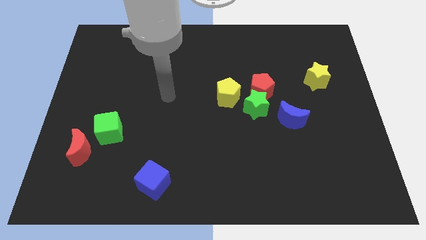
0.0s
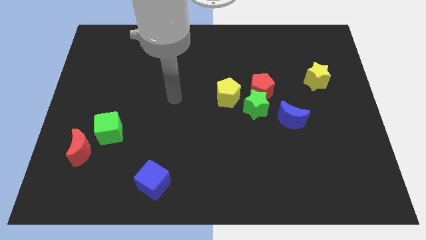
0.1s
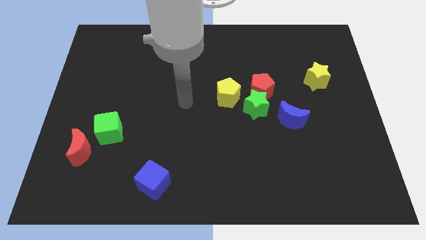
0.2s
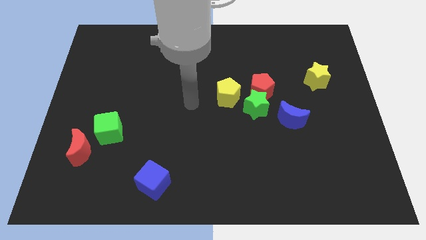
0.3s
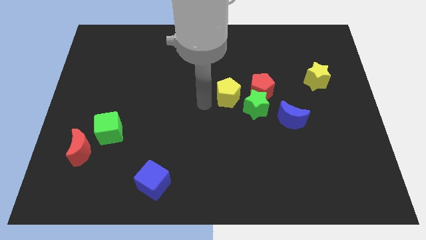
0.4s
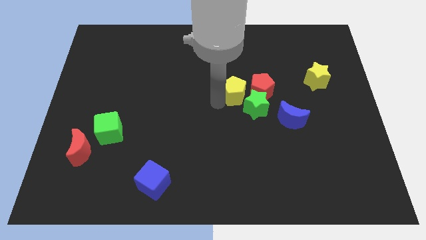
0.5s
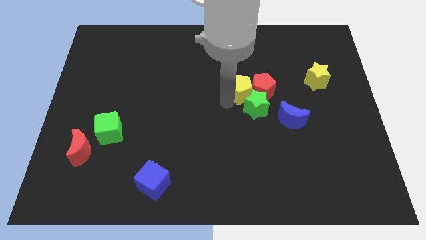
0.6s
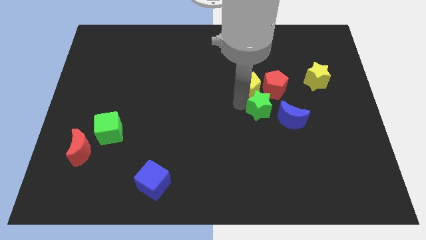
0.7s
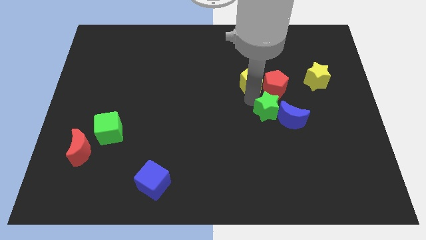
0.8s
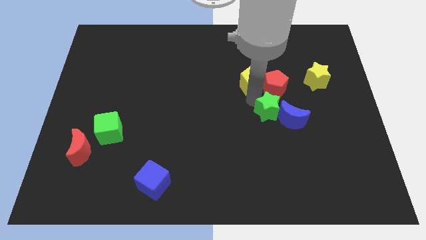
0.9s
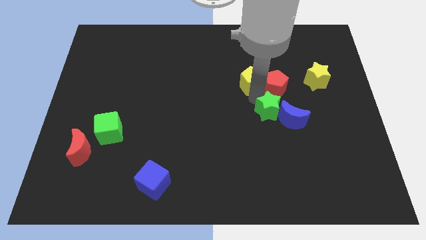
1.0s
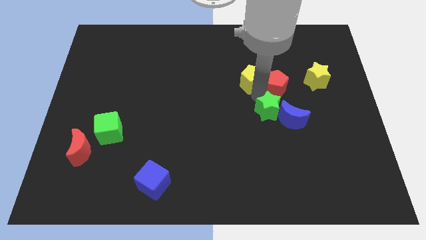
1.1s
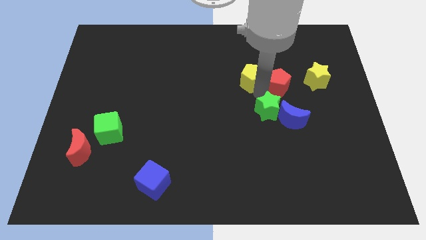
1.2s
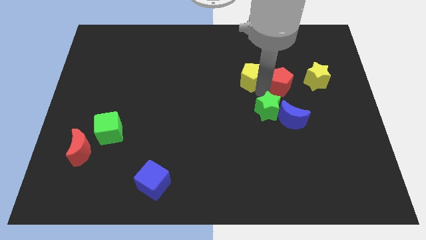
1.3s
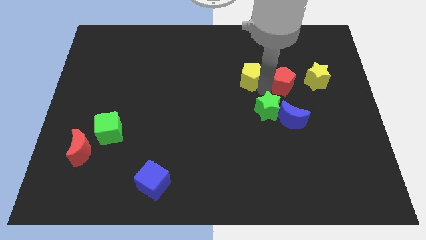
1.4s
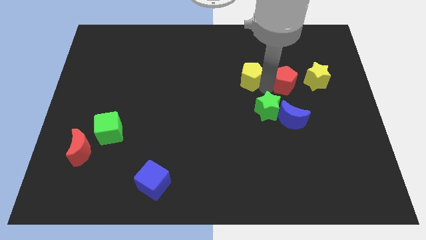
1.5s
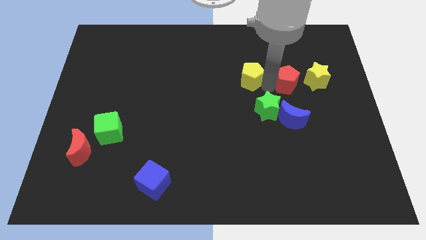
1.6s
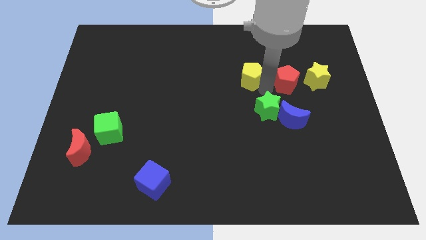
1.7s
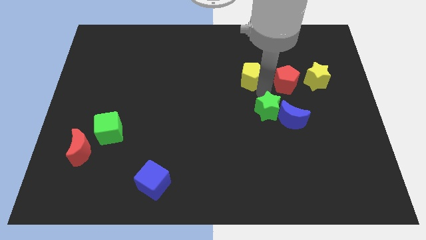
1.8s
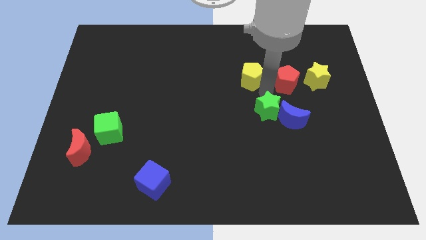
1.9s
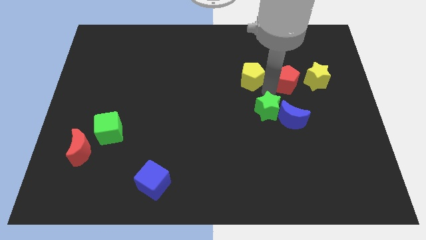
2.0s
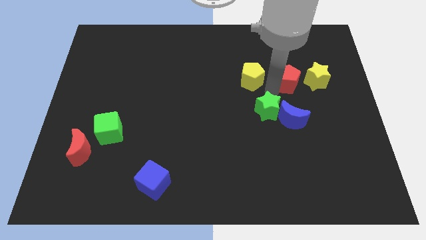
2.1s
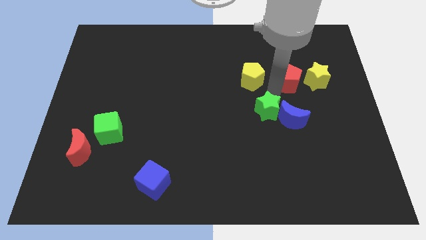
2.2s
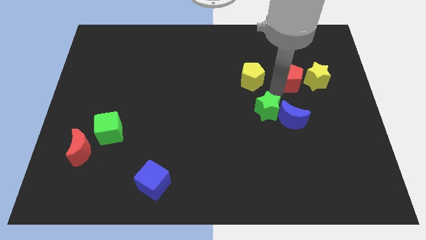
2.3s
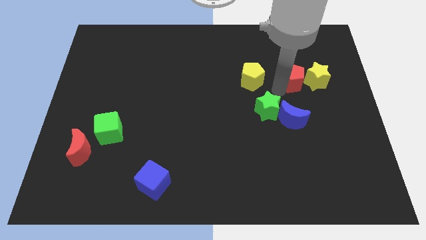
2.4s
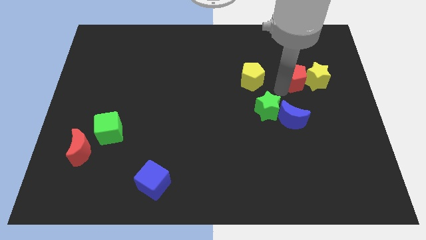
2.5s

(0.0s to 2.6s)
separate the red pentagon from the green star and yellow pentagon

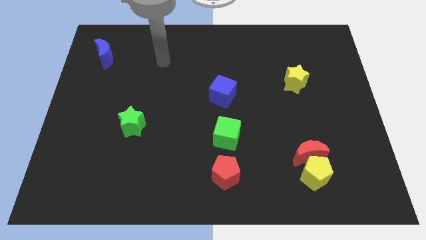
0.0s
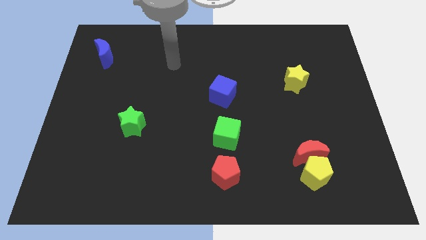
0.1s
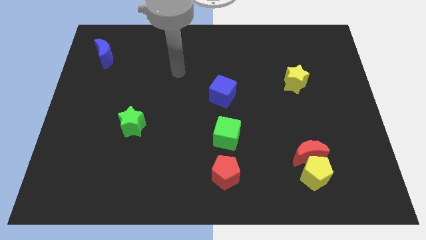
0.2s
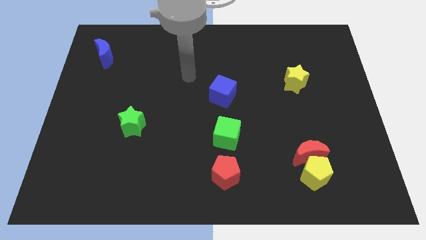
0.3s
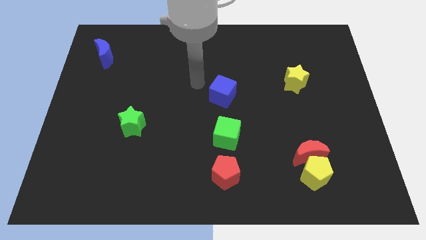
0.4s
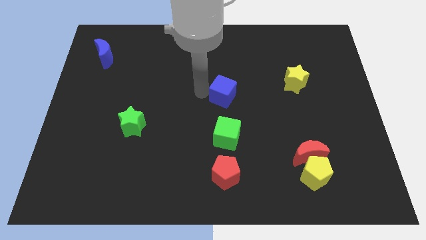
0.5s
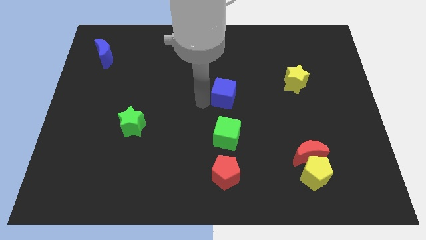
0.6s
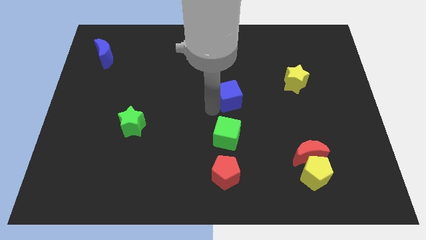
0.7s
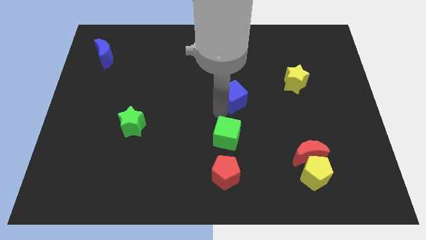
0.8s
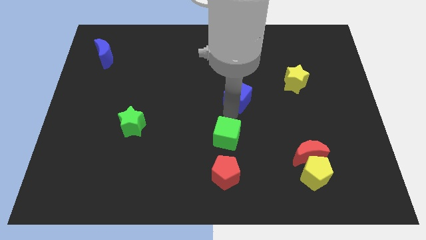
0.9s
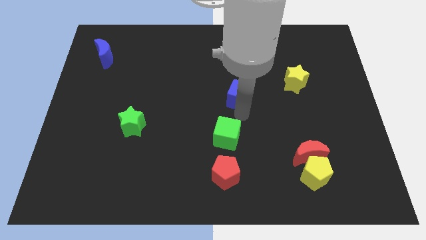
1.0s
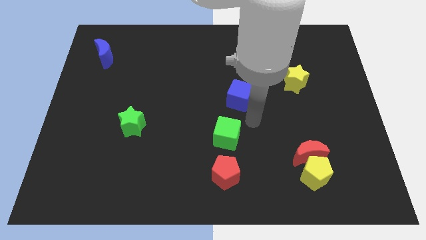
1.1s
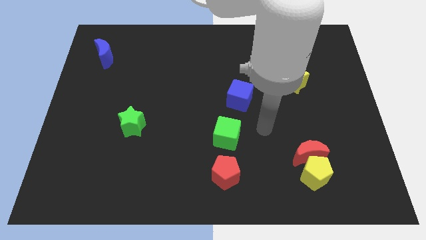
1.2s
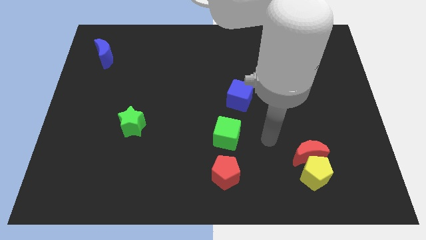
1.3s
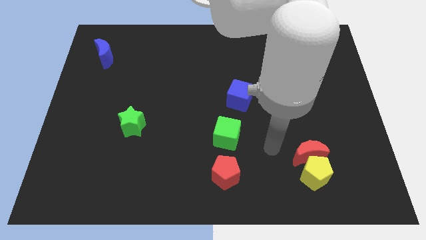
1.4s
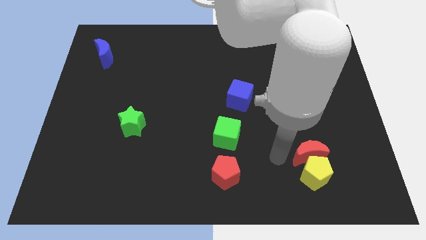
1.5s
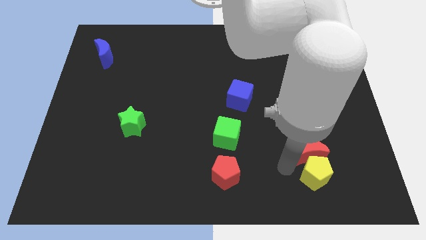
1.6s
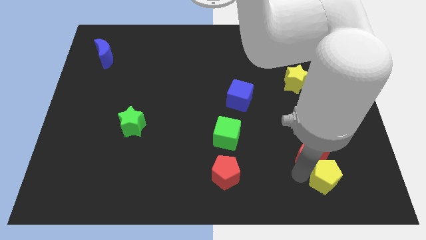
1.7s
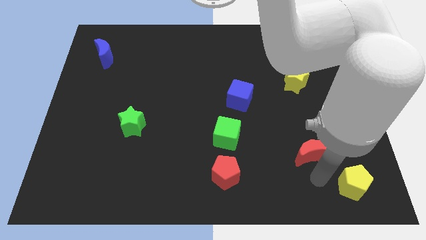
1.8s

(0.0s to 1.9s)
move the red moon away from the yellow pentagon

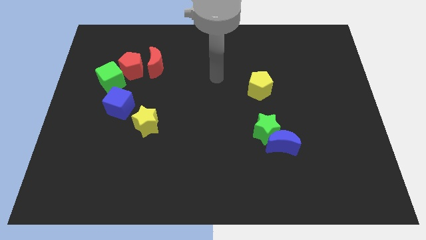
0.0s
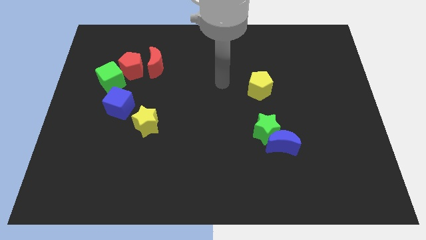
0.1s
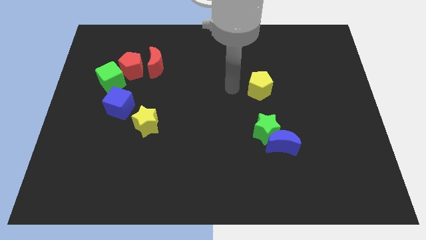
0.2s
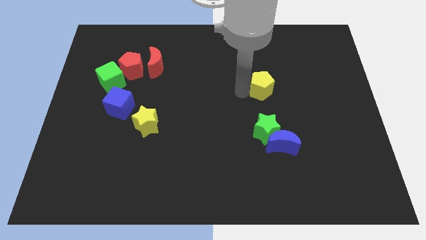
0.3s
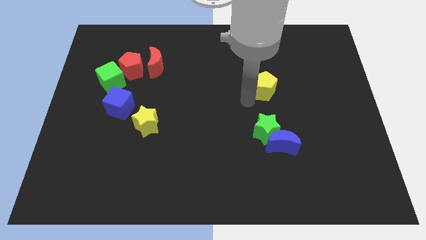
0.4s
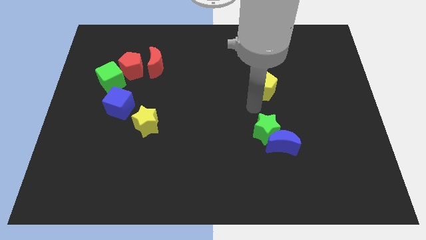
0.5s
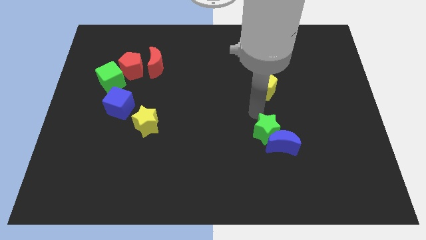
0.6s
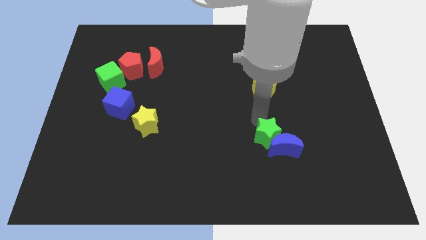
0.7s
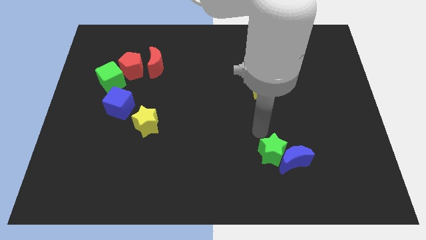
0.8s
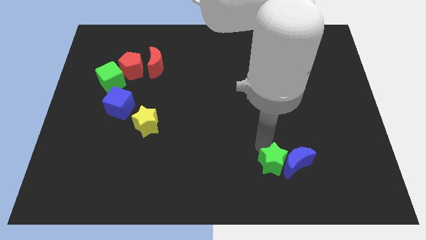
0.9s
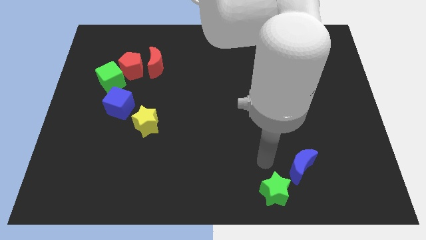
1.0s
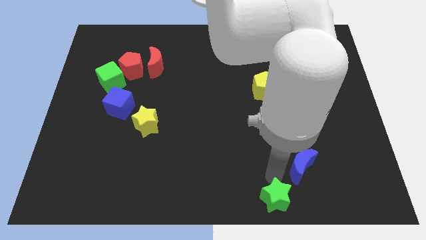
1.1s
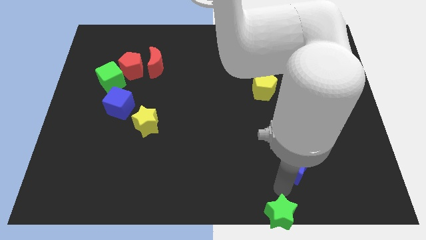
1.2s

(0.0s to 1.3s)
move the blue moon away from the green star

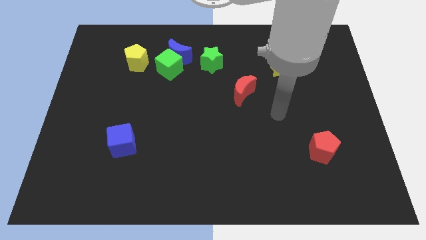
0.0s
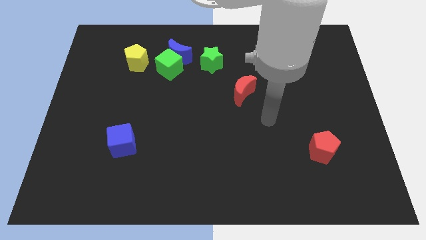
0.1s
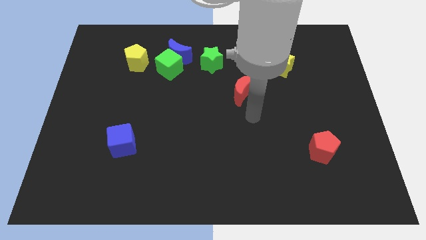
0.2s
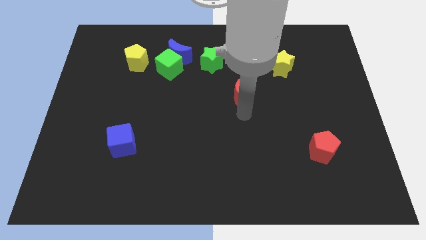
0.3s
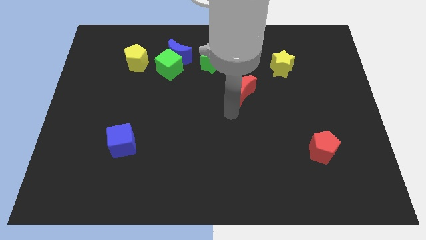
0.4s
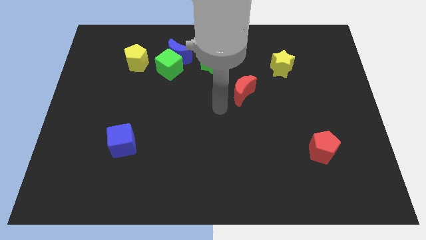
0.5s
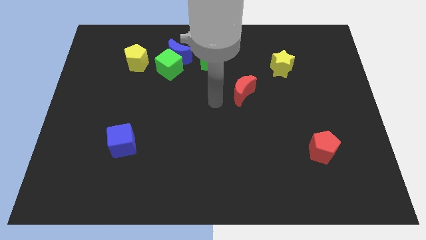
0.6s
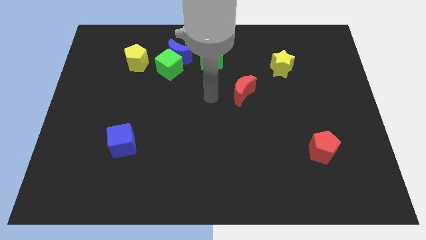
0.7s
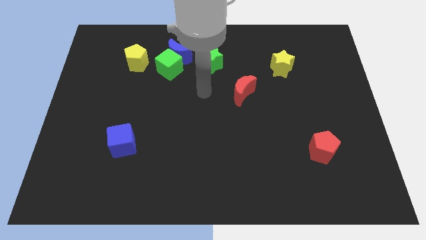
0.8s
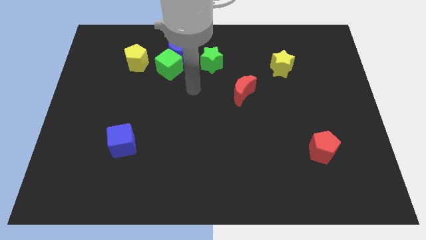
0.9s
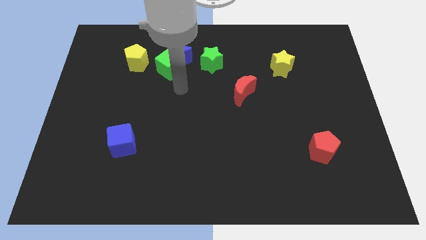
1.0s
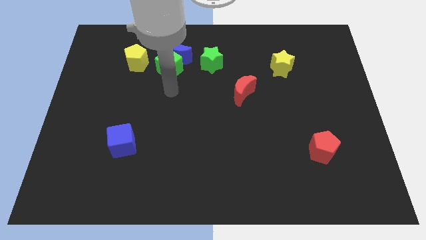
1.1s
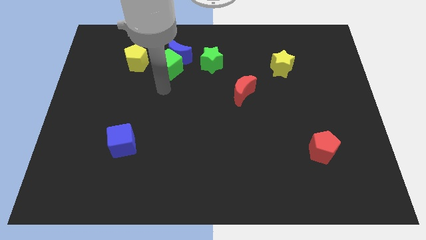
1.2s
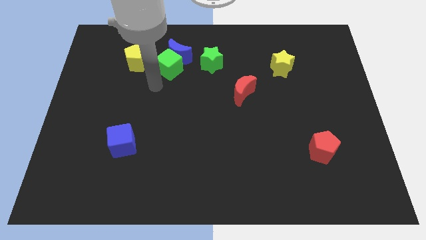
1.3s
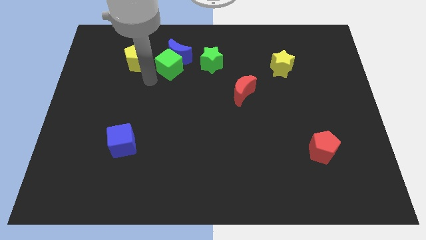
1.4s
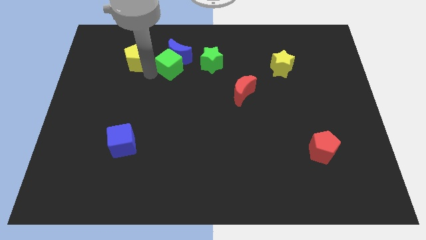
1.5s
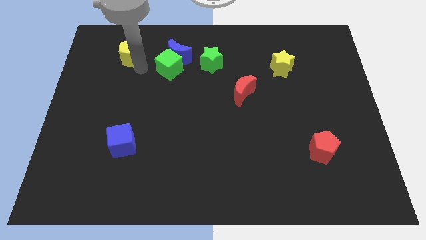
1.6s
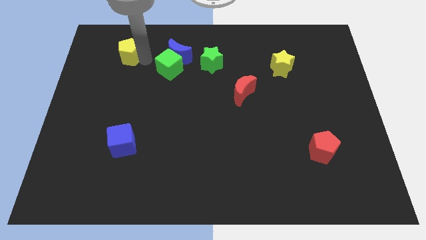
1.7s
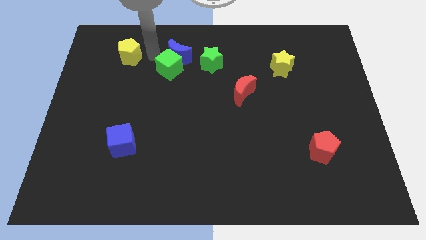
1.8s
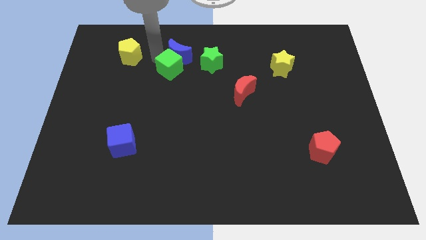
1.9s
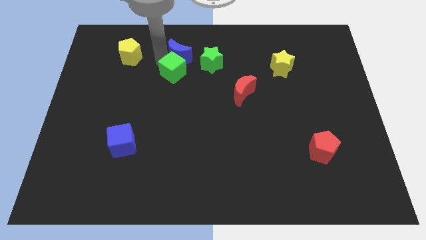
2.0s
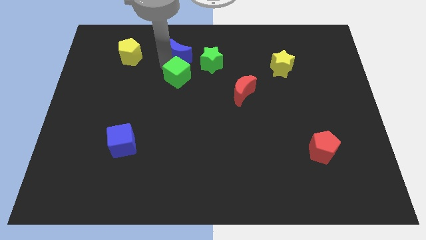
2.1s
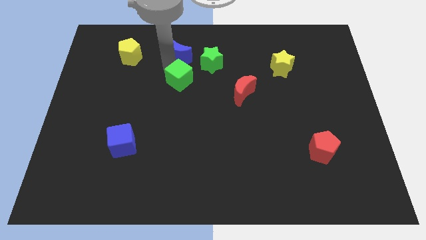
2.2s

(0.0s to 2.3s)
separate the green cube from the blue moon and yellow pentagon

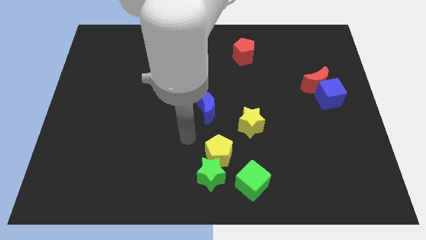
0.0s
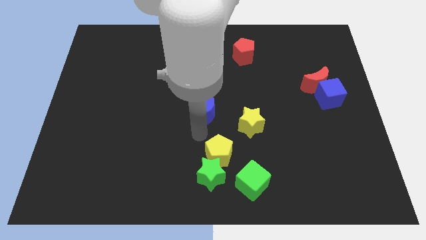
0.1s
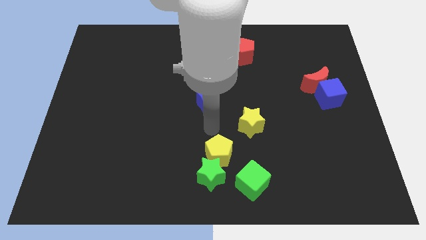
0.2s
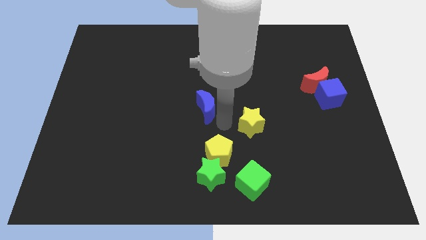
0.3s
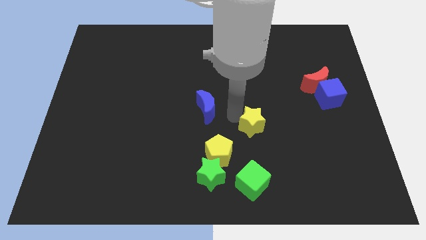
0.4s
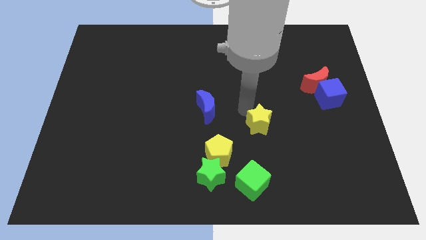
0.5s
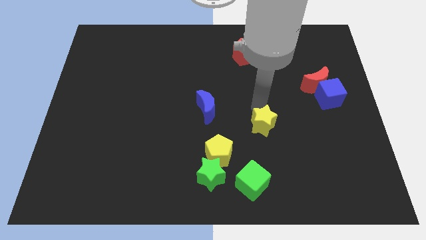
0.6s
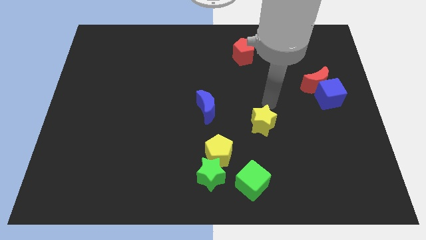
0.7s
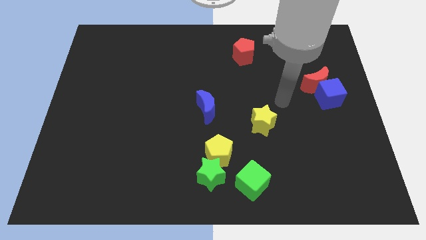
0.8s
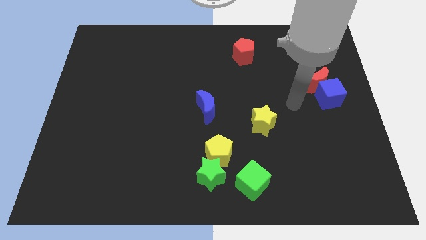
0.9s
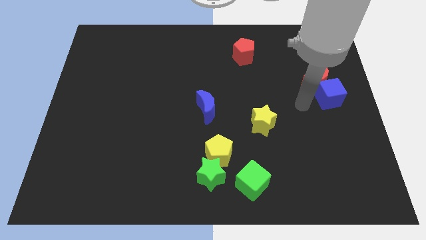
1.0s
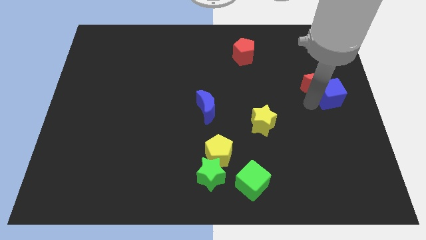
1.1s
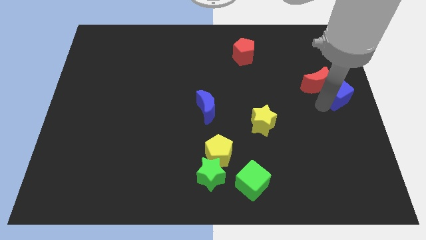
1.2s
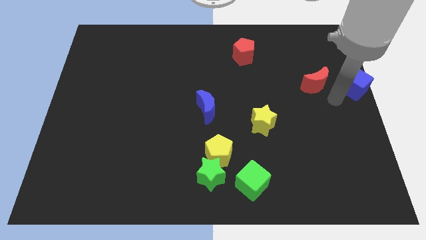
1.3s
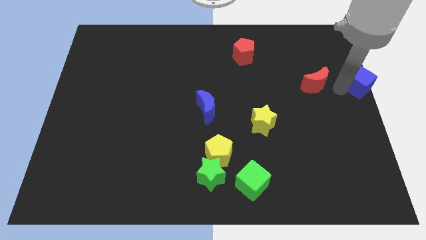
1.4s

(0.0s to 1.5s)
move the red moon away from the blue cube
